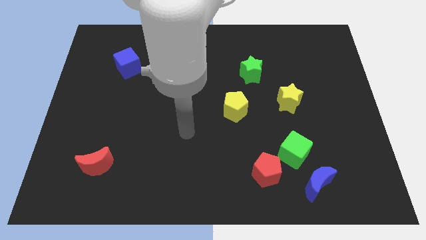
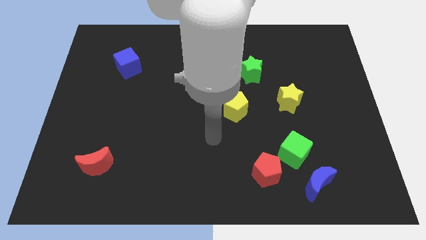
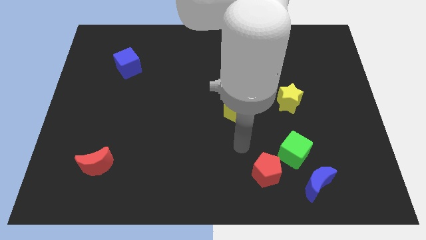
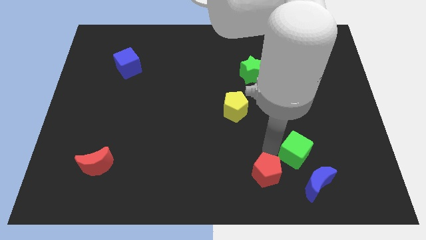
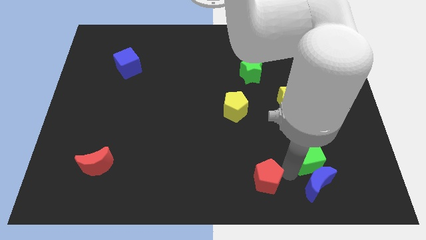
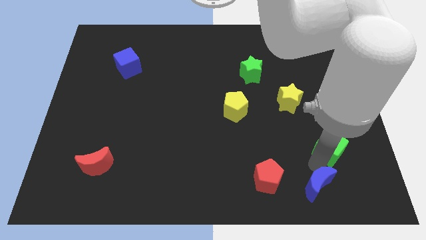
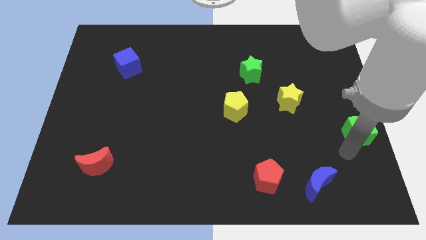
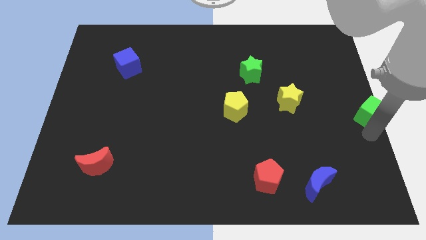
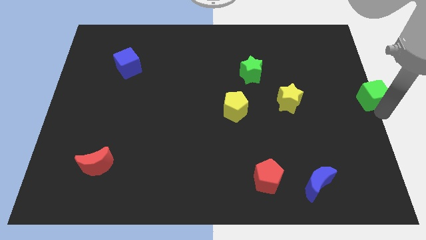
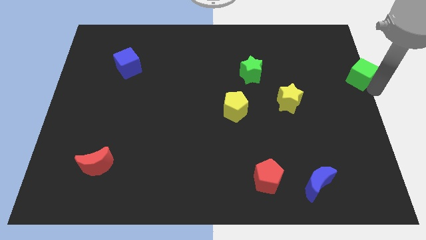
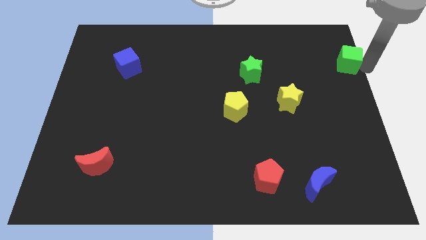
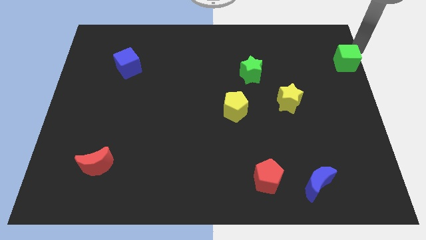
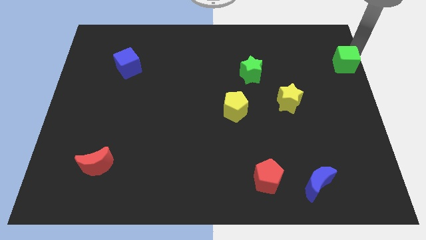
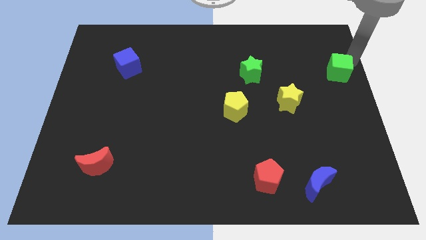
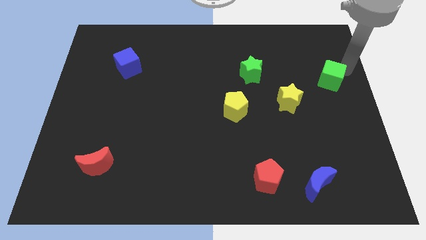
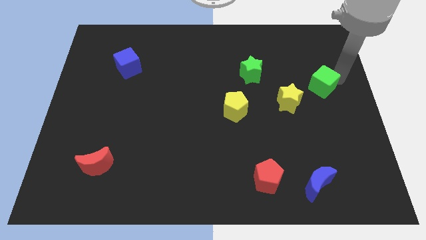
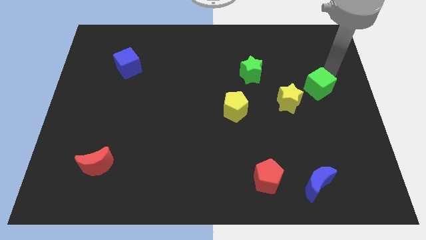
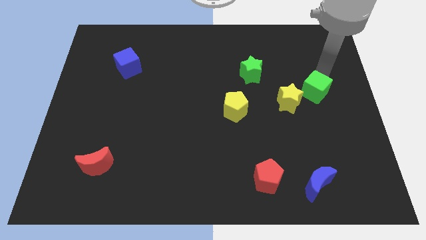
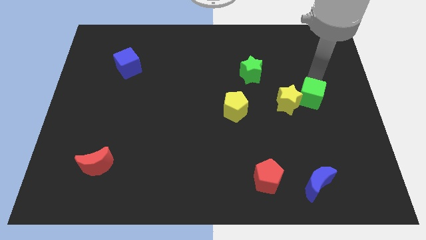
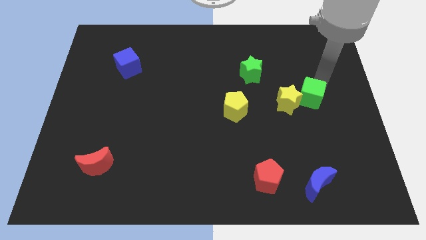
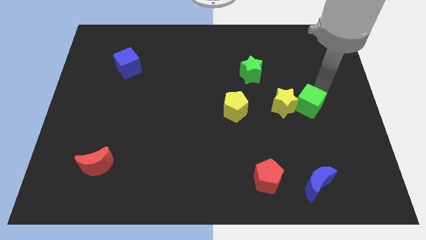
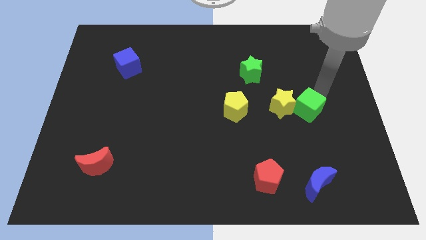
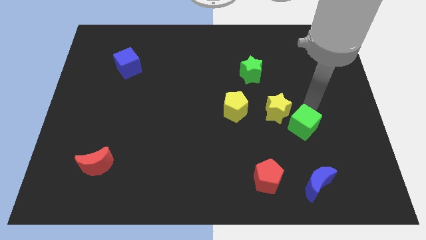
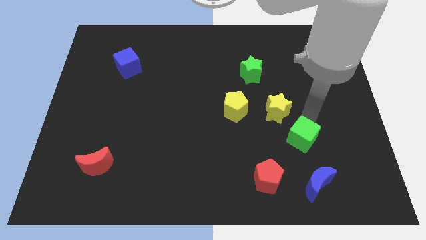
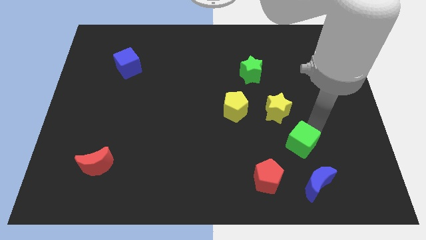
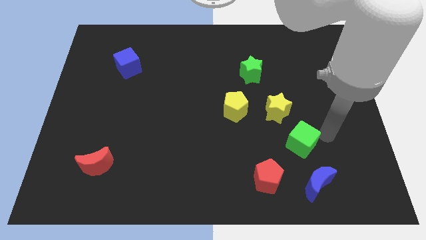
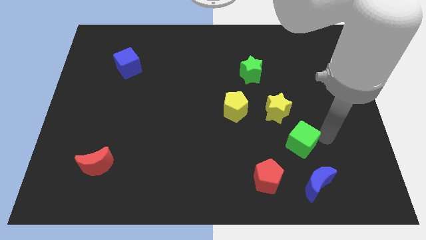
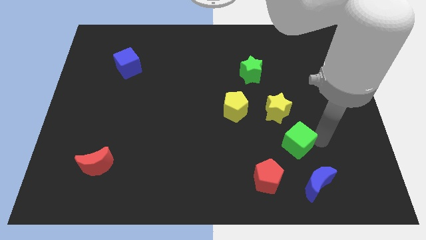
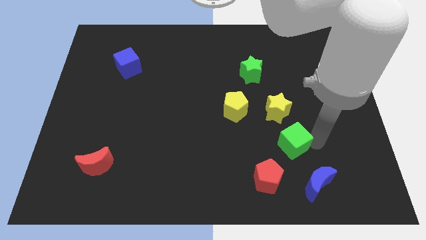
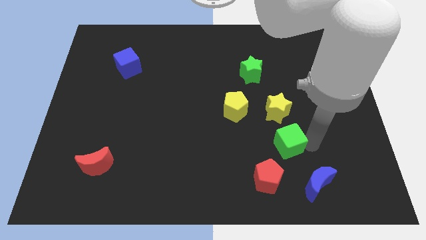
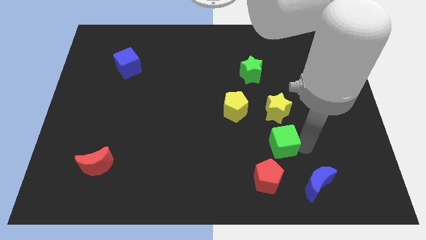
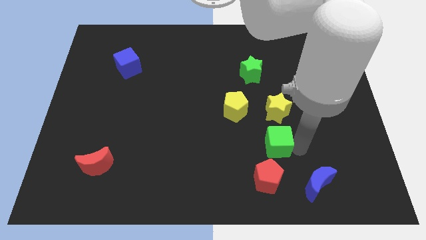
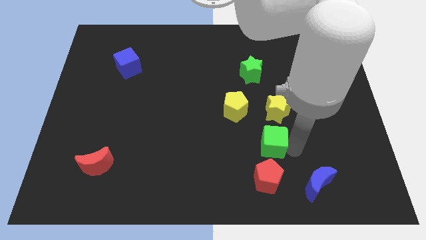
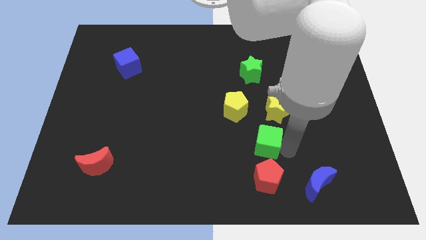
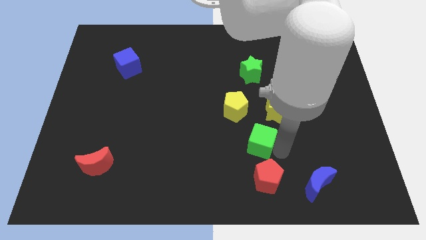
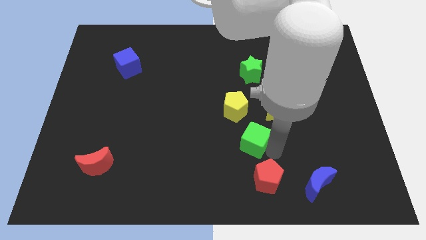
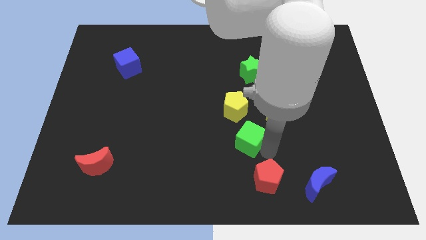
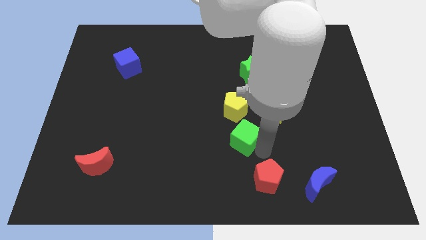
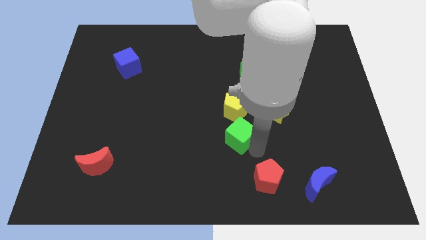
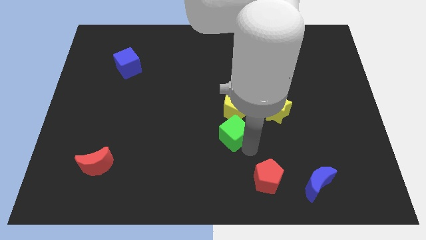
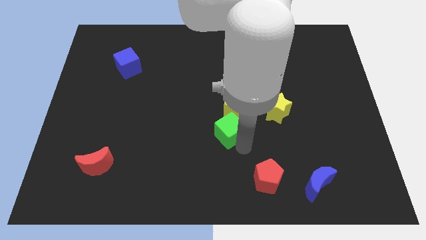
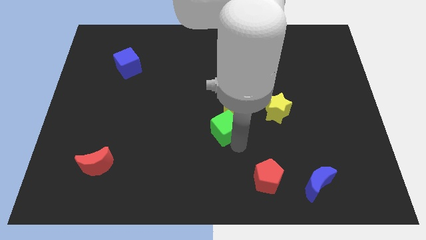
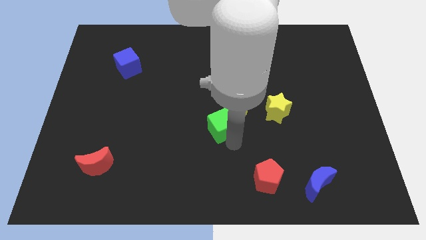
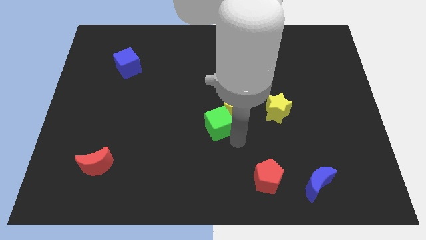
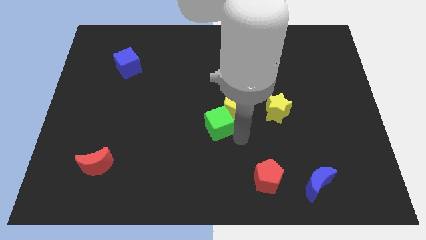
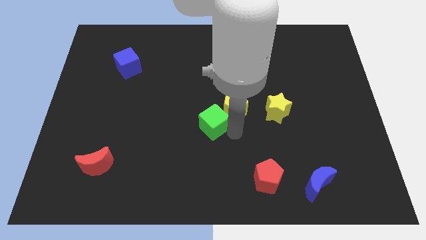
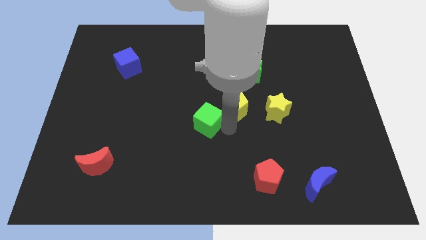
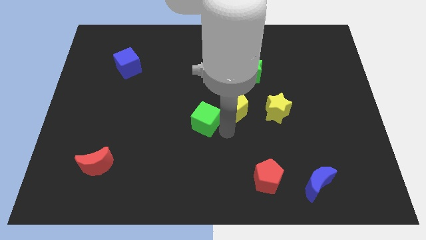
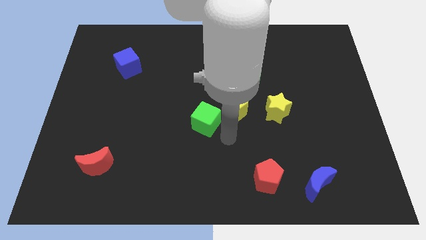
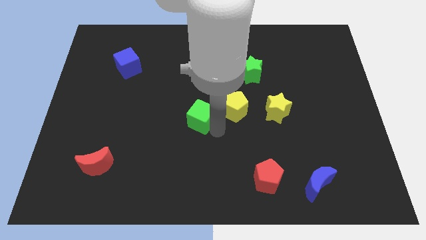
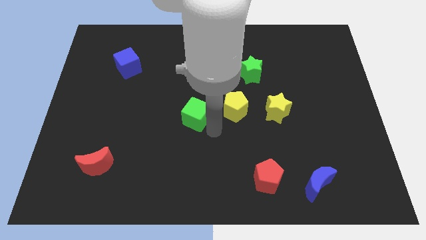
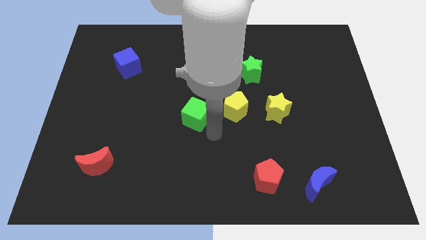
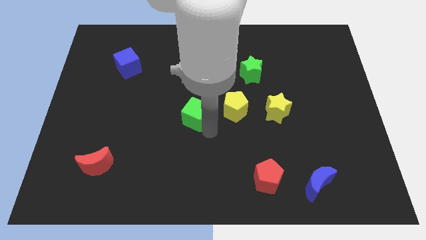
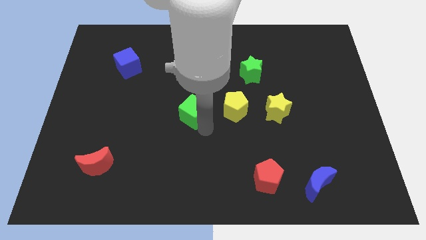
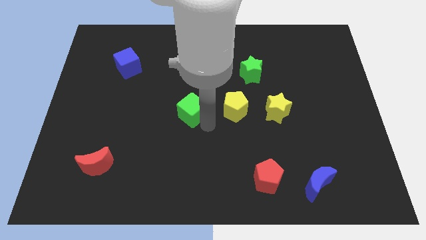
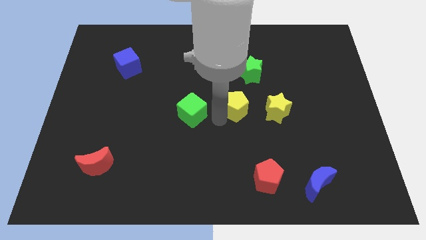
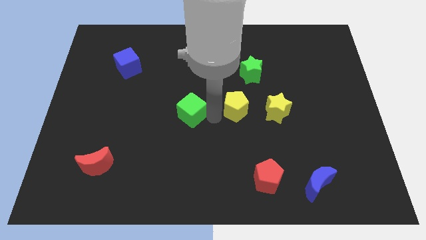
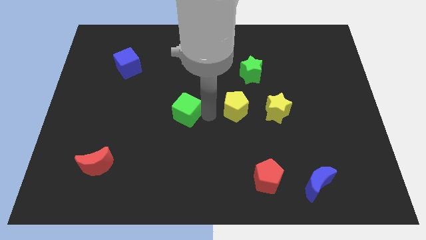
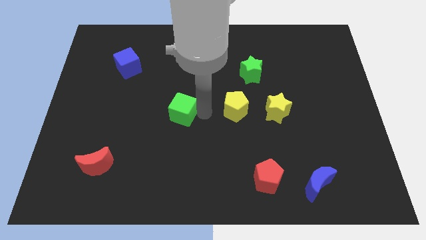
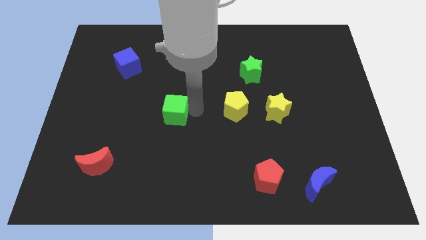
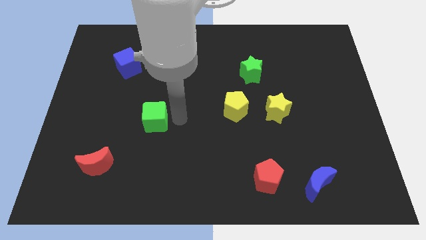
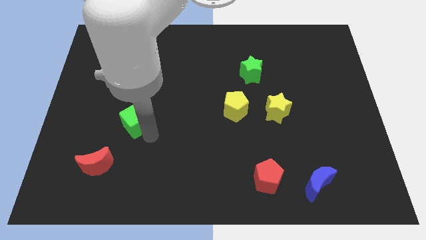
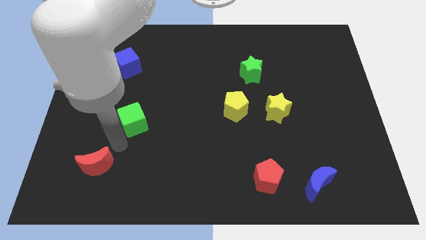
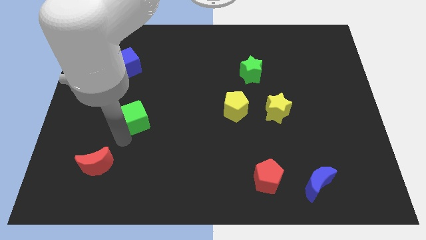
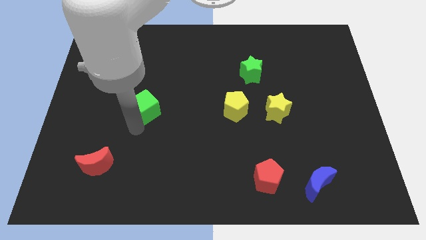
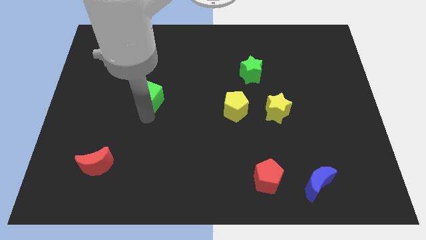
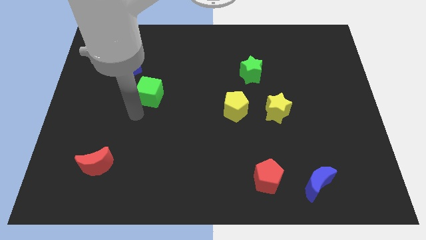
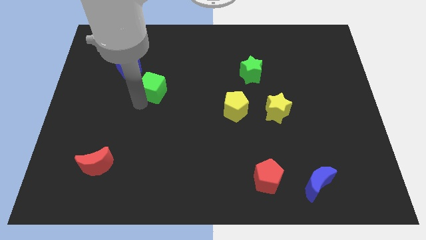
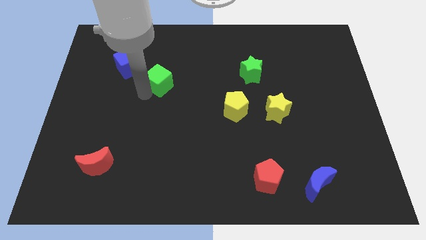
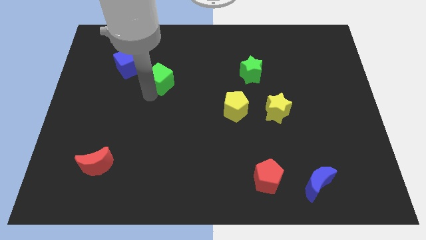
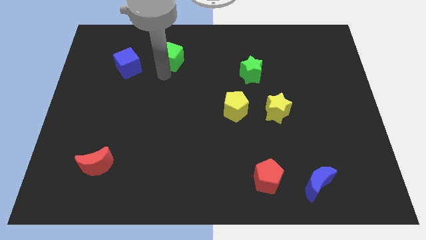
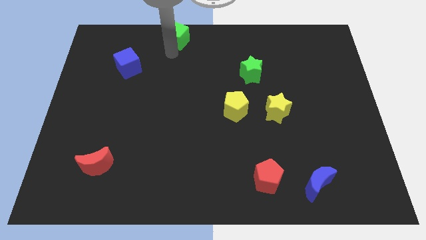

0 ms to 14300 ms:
push the green cube to the towards your base
